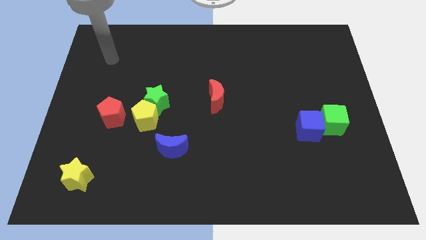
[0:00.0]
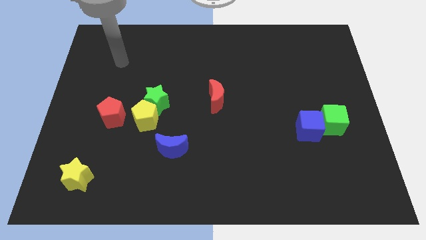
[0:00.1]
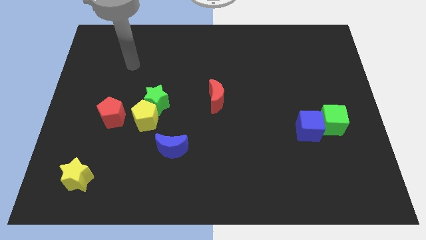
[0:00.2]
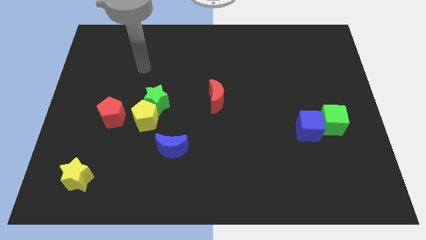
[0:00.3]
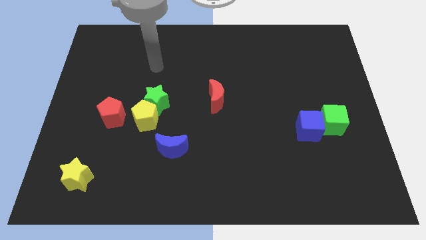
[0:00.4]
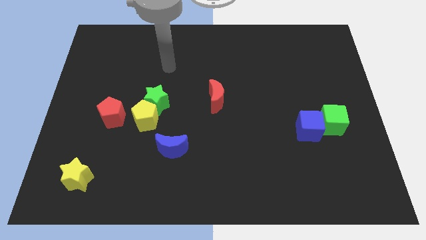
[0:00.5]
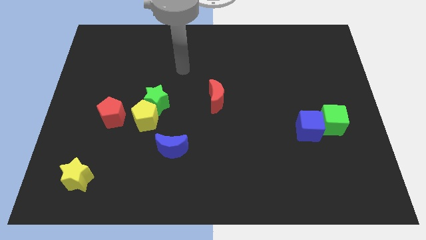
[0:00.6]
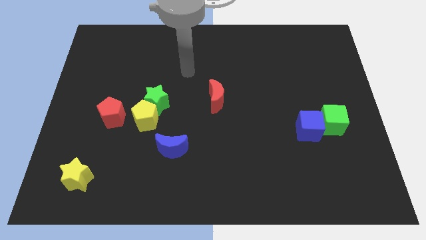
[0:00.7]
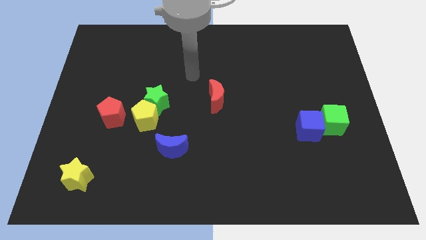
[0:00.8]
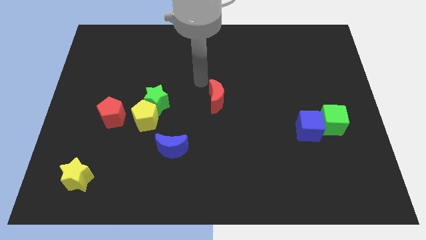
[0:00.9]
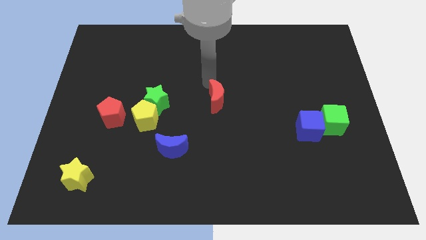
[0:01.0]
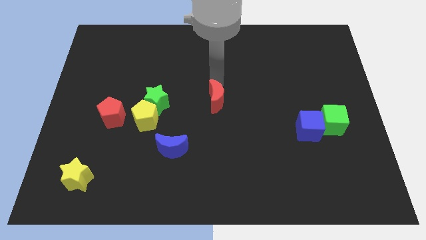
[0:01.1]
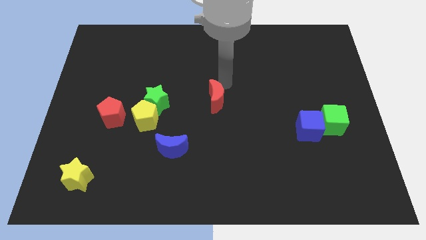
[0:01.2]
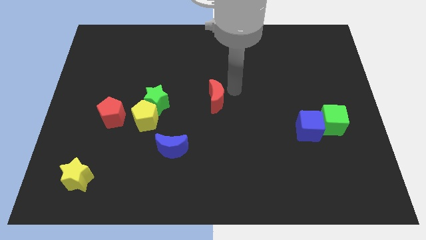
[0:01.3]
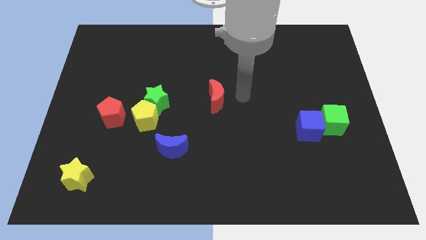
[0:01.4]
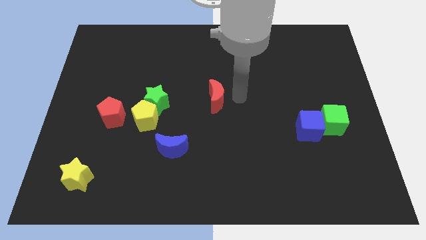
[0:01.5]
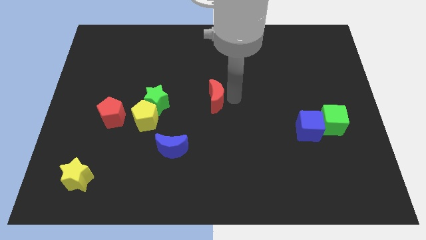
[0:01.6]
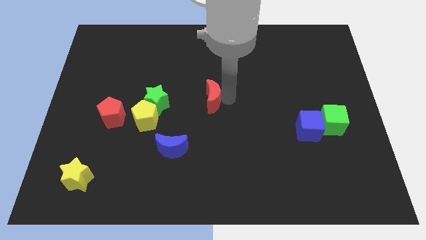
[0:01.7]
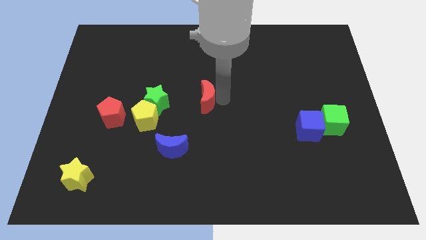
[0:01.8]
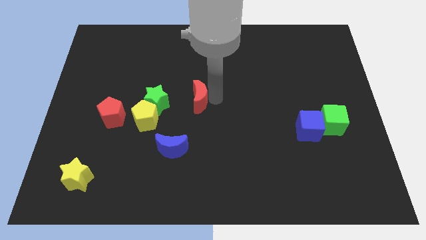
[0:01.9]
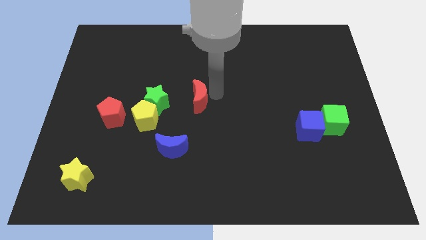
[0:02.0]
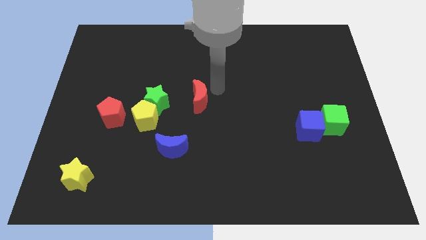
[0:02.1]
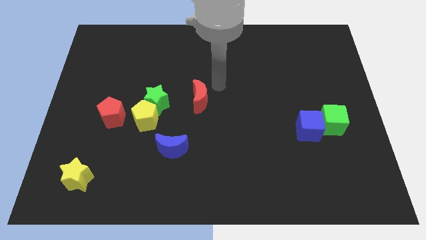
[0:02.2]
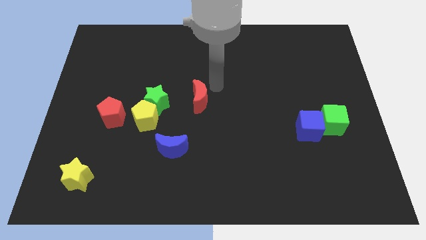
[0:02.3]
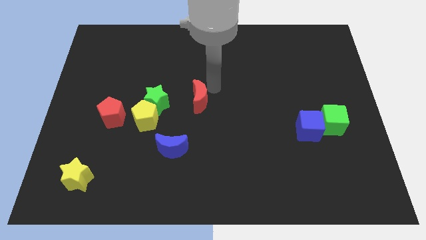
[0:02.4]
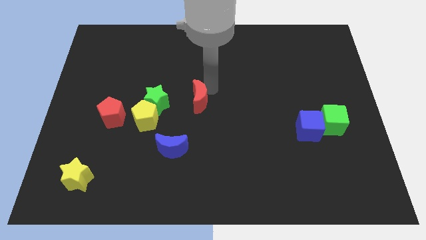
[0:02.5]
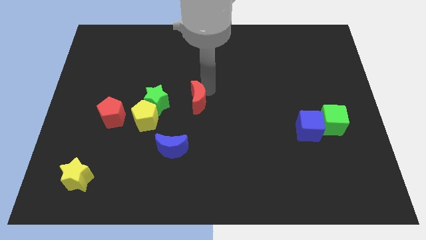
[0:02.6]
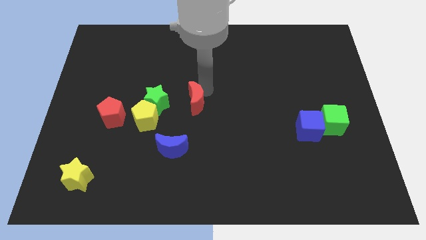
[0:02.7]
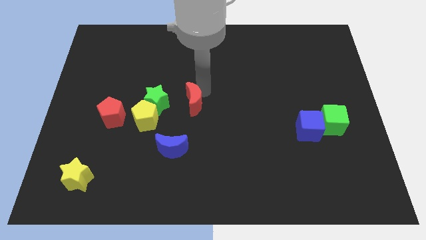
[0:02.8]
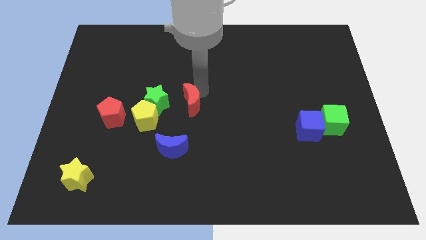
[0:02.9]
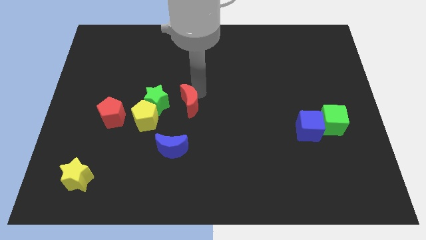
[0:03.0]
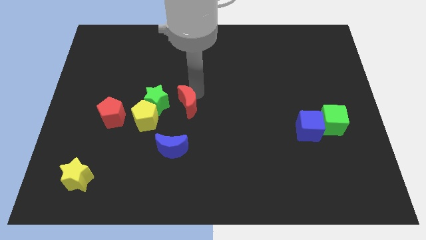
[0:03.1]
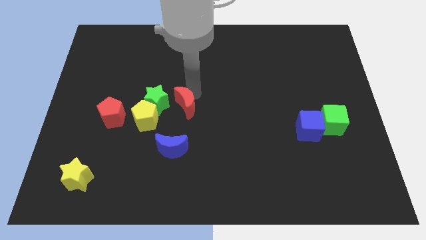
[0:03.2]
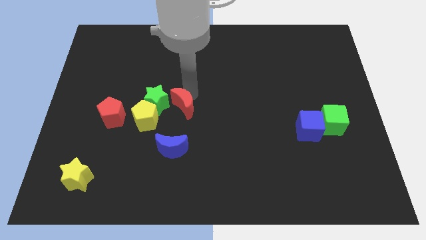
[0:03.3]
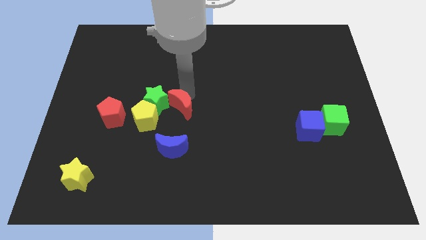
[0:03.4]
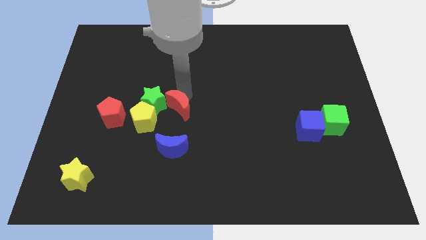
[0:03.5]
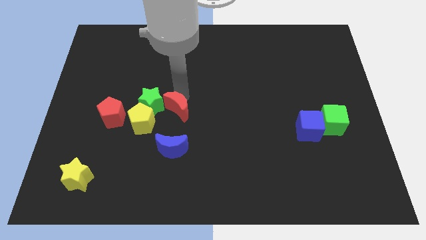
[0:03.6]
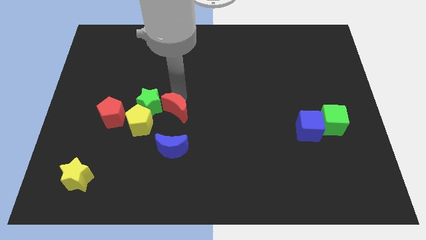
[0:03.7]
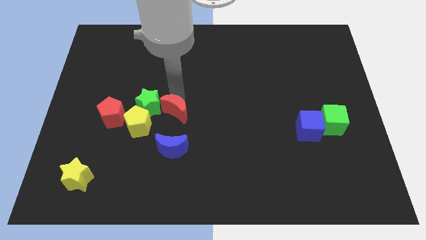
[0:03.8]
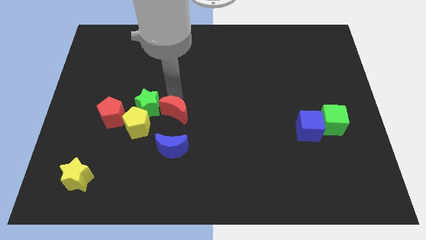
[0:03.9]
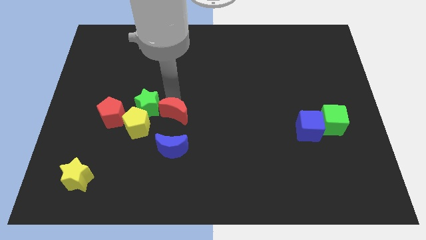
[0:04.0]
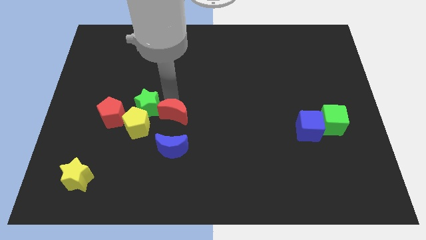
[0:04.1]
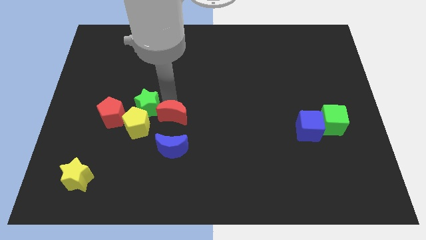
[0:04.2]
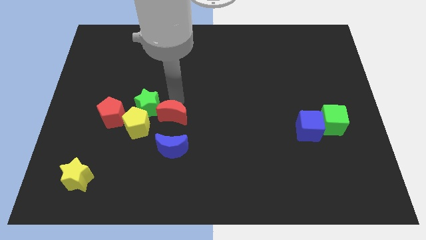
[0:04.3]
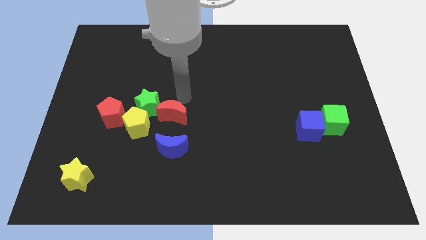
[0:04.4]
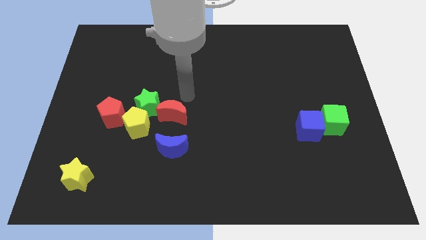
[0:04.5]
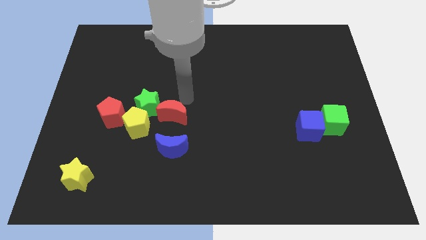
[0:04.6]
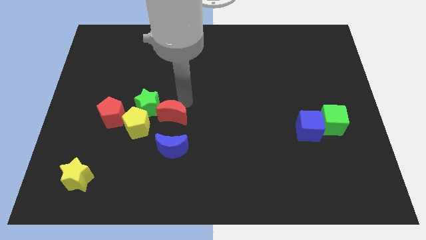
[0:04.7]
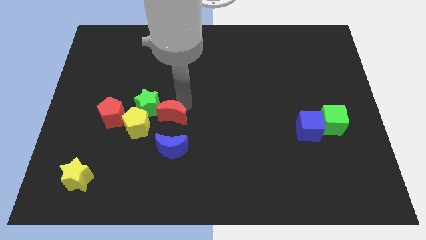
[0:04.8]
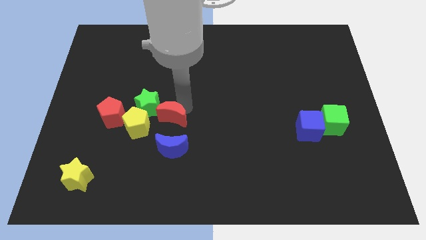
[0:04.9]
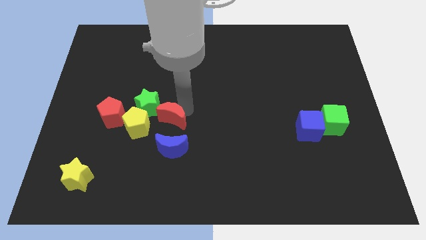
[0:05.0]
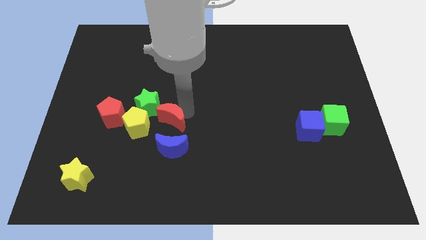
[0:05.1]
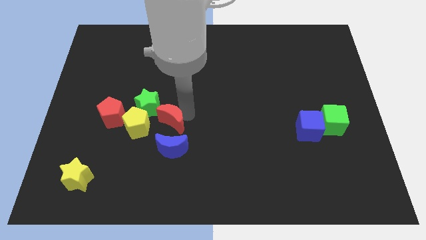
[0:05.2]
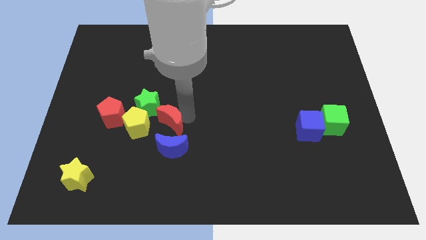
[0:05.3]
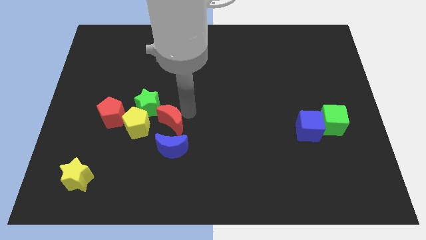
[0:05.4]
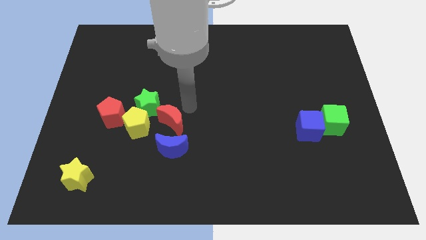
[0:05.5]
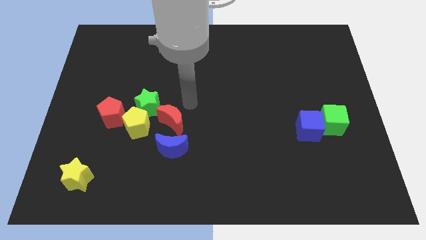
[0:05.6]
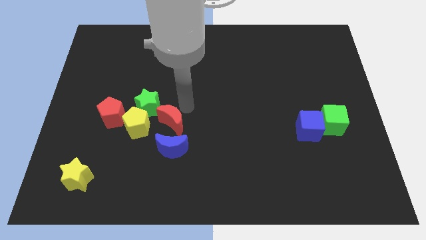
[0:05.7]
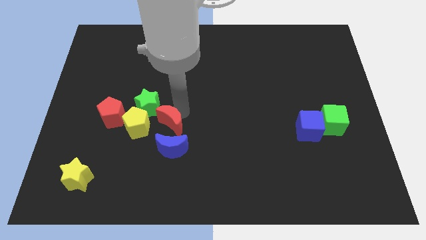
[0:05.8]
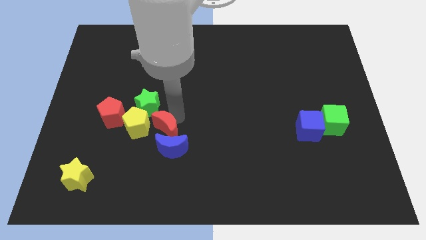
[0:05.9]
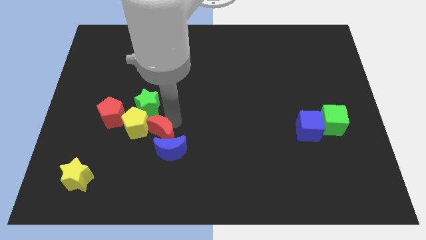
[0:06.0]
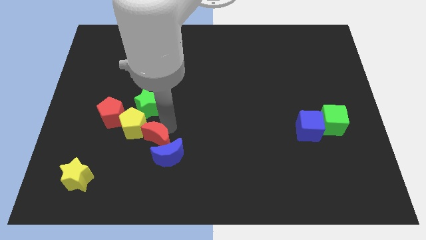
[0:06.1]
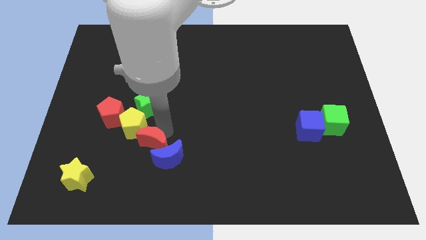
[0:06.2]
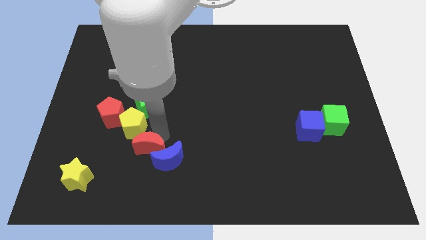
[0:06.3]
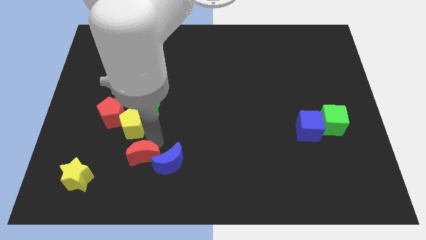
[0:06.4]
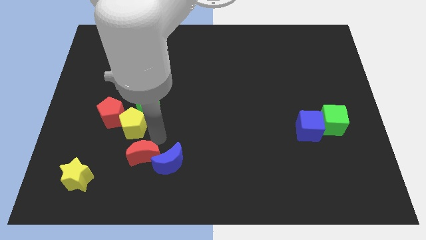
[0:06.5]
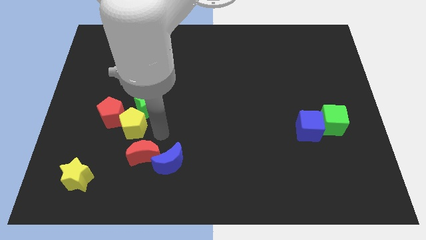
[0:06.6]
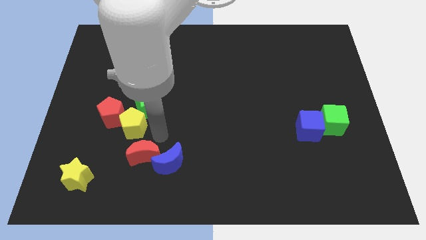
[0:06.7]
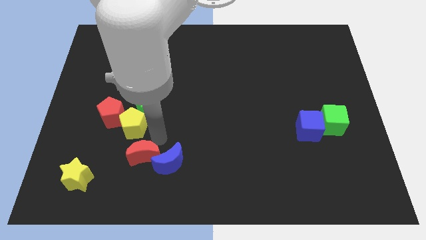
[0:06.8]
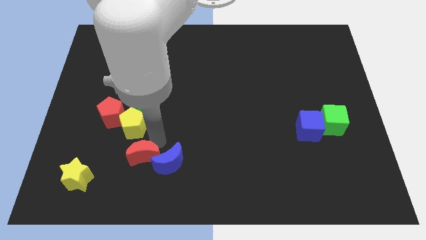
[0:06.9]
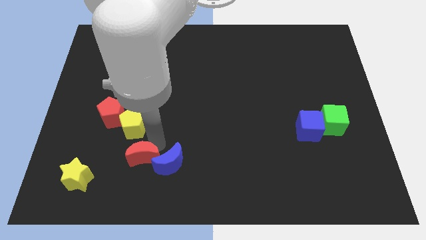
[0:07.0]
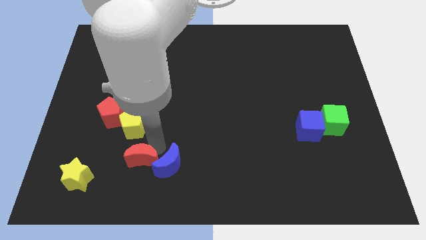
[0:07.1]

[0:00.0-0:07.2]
push the red moon right of the yellow star
